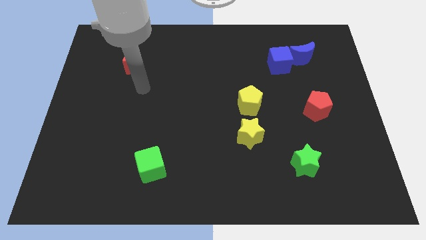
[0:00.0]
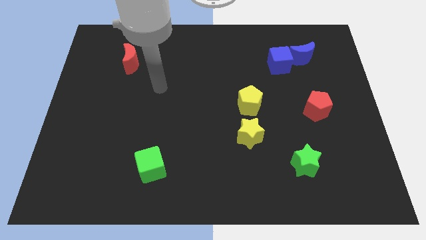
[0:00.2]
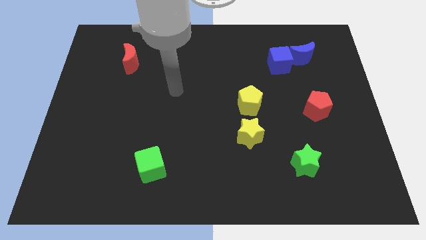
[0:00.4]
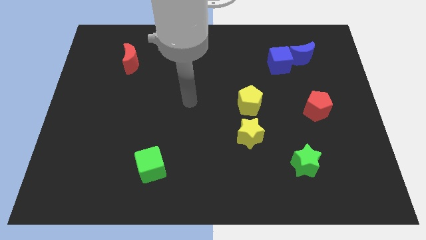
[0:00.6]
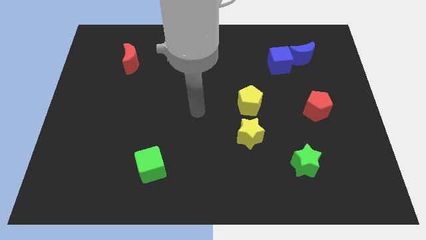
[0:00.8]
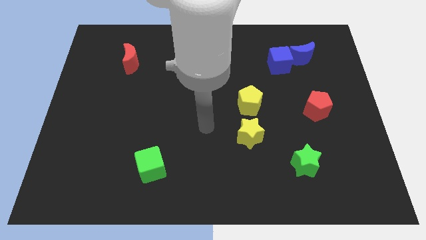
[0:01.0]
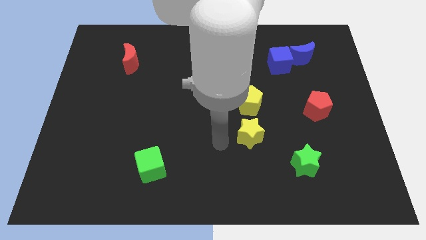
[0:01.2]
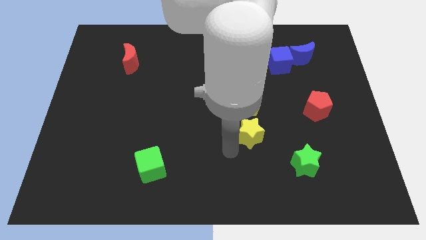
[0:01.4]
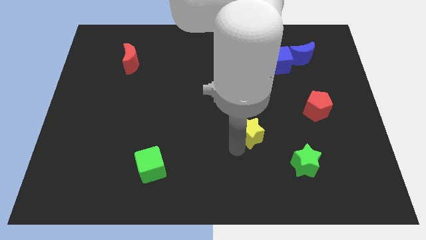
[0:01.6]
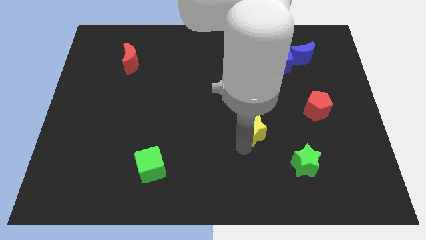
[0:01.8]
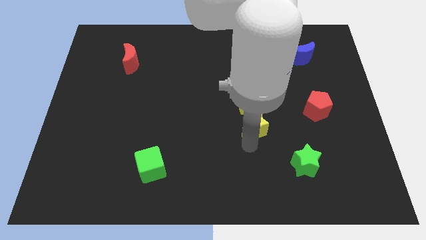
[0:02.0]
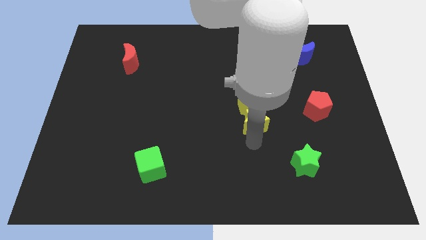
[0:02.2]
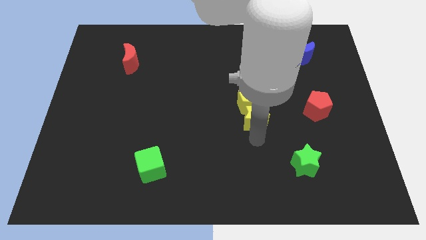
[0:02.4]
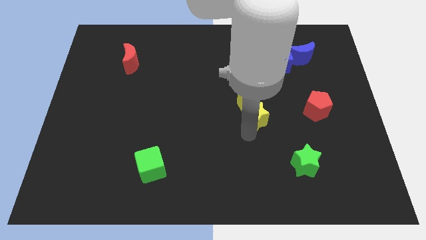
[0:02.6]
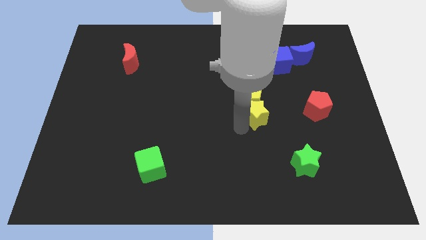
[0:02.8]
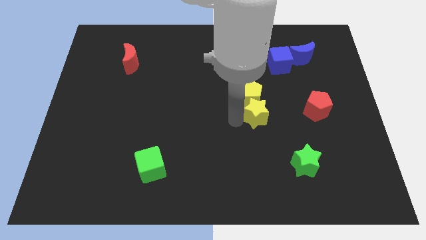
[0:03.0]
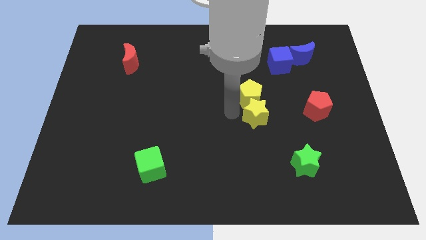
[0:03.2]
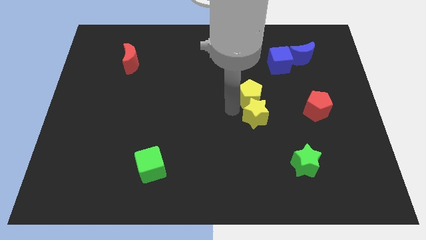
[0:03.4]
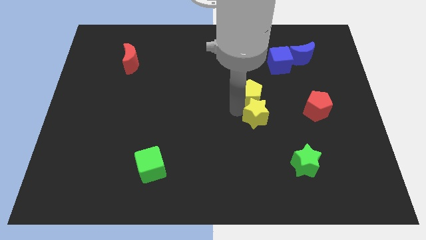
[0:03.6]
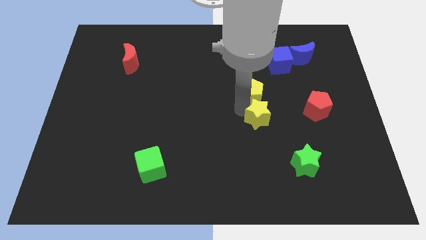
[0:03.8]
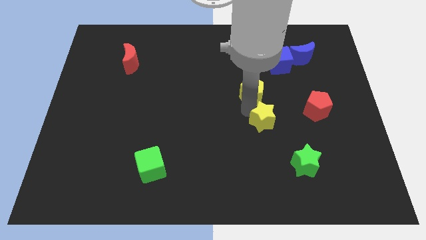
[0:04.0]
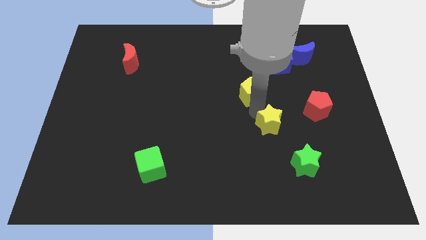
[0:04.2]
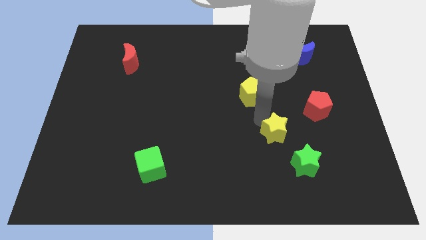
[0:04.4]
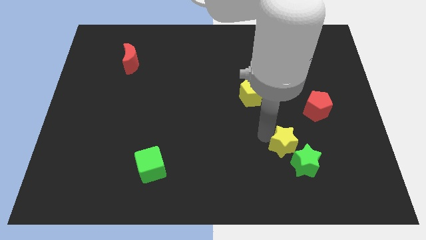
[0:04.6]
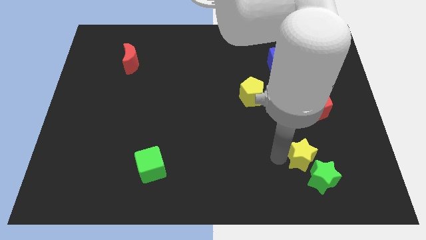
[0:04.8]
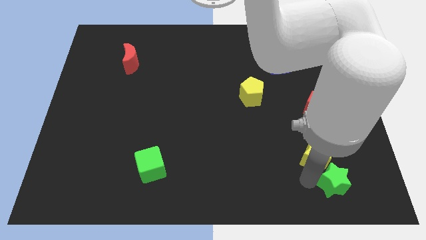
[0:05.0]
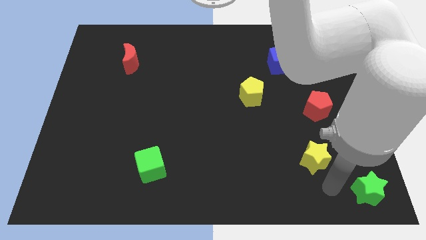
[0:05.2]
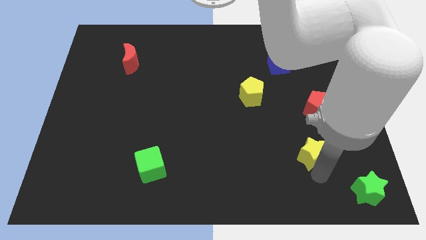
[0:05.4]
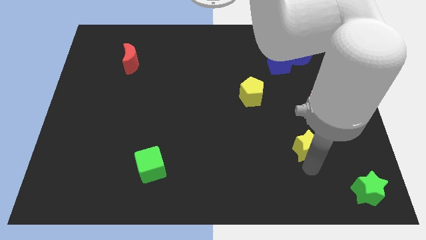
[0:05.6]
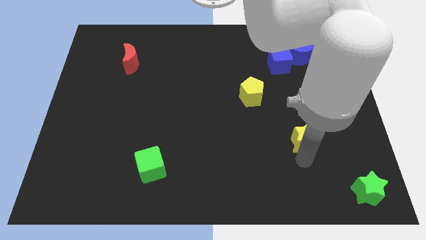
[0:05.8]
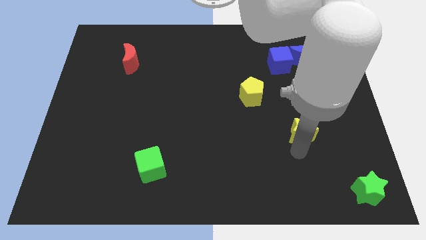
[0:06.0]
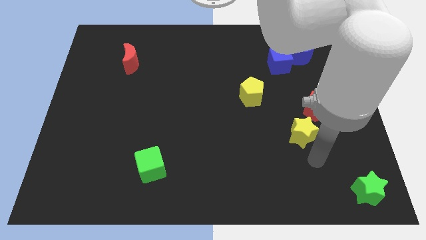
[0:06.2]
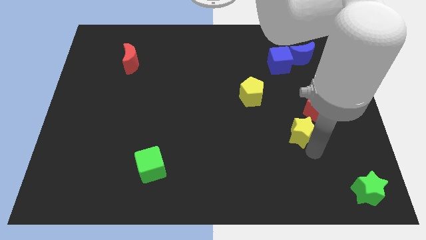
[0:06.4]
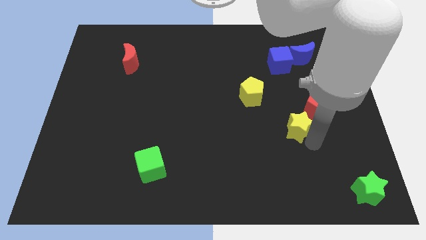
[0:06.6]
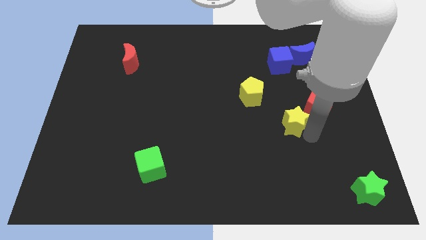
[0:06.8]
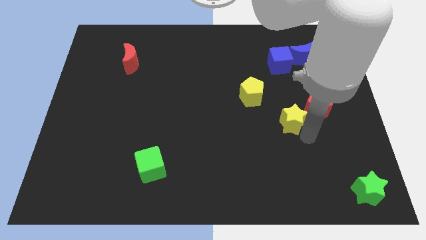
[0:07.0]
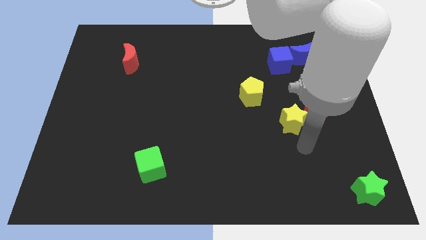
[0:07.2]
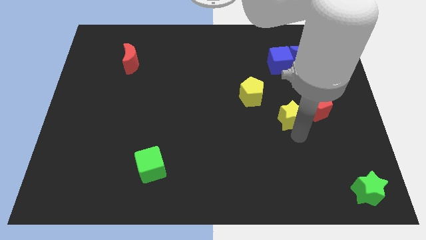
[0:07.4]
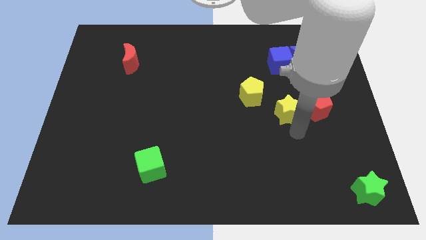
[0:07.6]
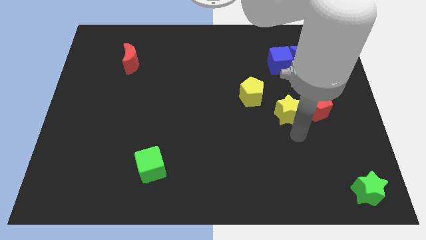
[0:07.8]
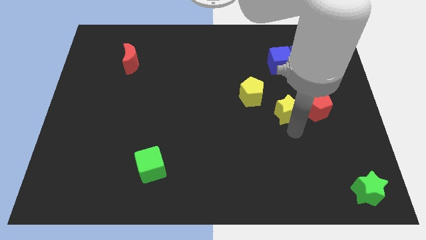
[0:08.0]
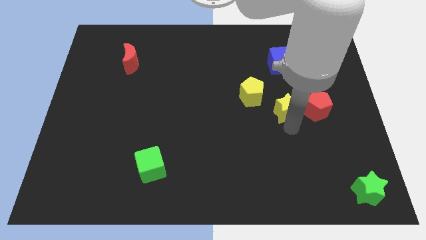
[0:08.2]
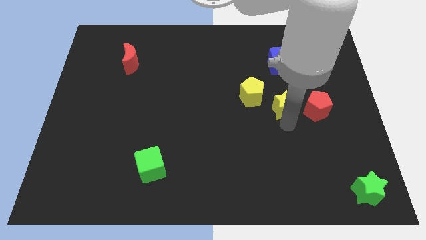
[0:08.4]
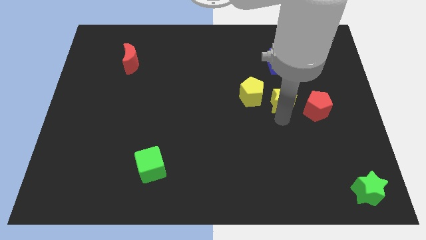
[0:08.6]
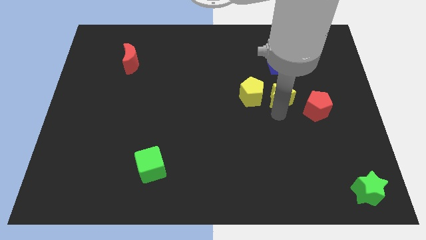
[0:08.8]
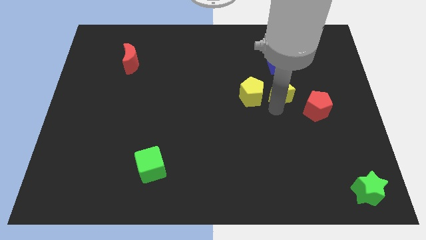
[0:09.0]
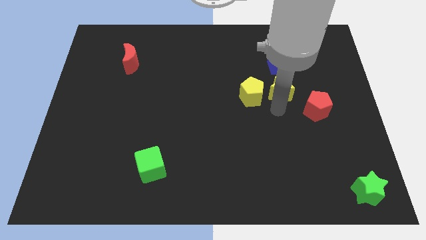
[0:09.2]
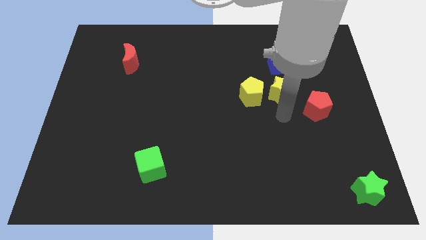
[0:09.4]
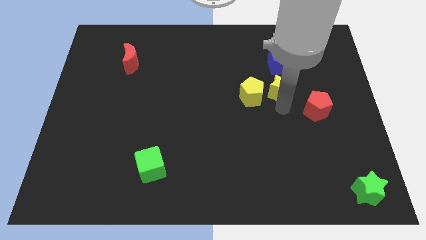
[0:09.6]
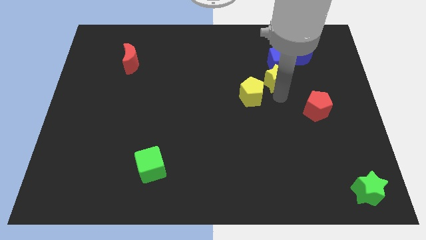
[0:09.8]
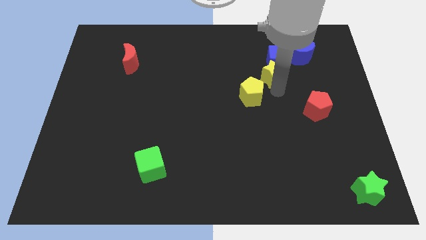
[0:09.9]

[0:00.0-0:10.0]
move the yellow star towards the blue cube

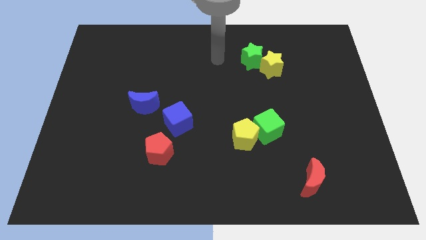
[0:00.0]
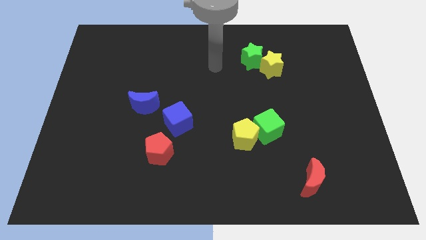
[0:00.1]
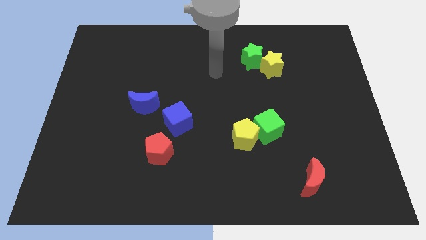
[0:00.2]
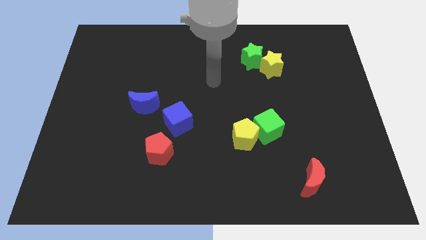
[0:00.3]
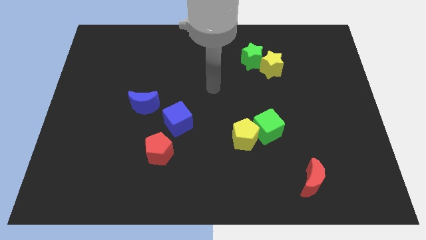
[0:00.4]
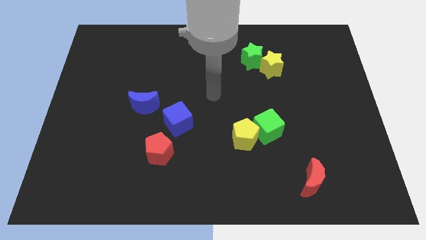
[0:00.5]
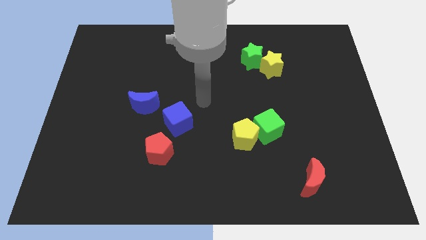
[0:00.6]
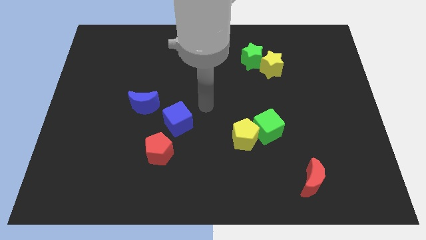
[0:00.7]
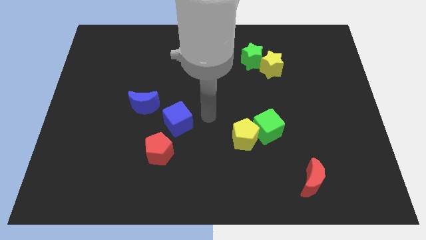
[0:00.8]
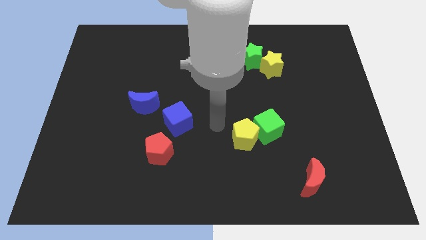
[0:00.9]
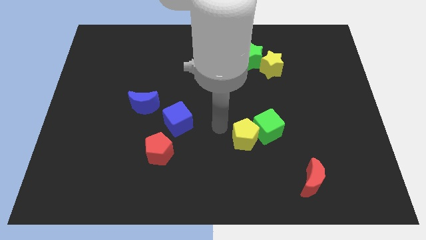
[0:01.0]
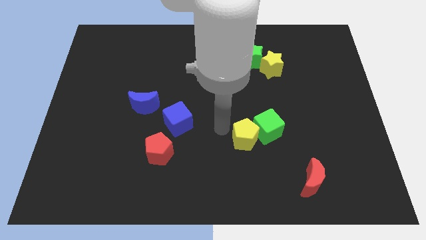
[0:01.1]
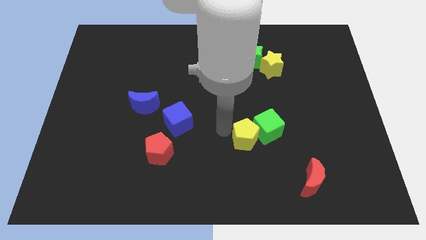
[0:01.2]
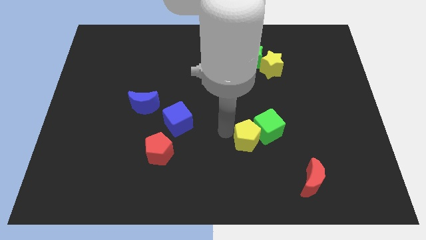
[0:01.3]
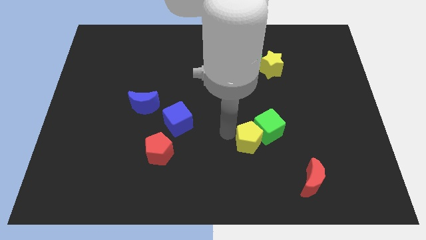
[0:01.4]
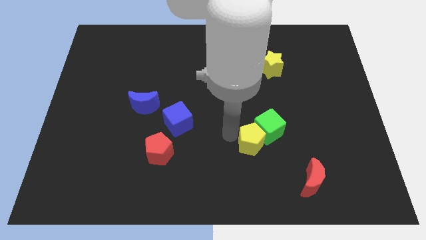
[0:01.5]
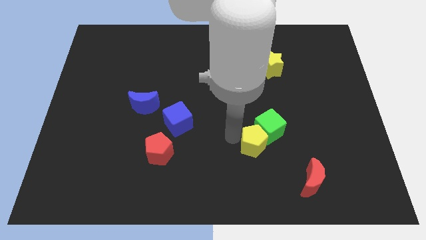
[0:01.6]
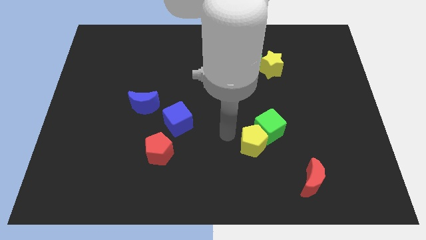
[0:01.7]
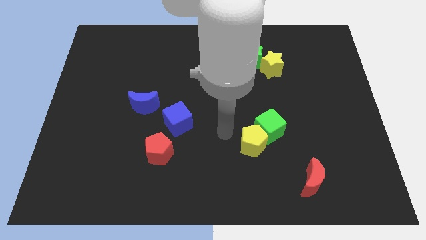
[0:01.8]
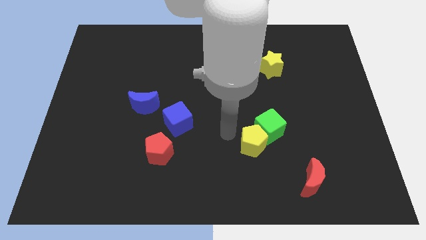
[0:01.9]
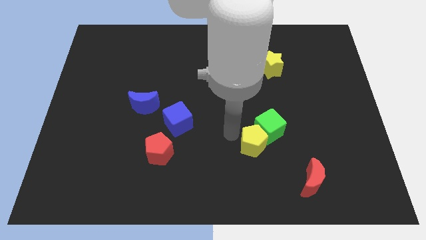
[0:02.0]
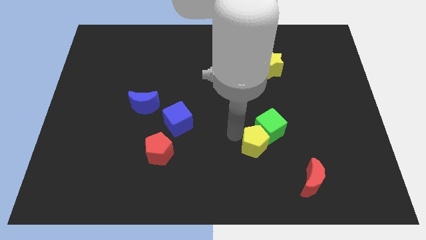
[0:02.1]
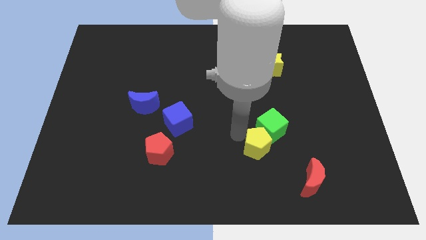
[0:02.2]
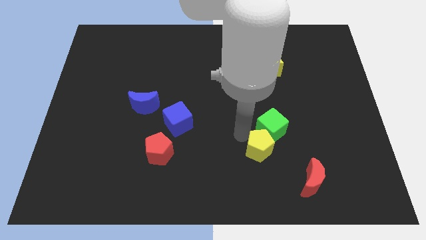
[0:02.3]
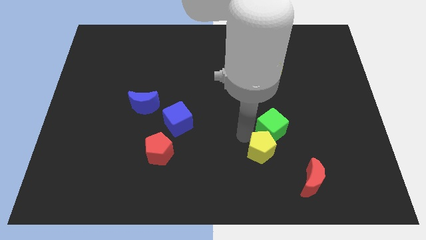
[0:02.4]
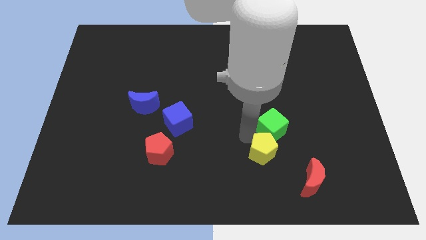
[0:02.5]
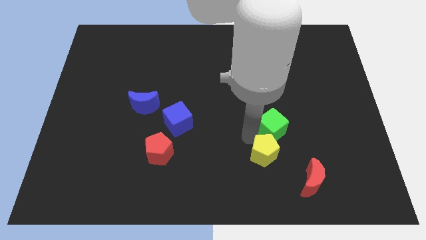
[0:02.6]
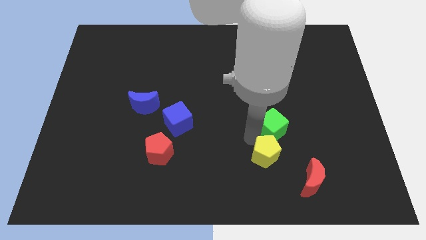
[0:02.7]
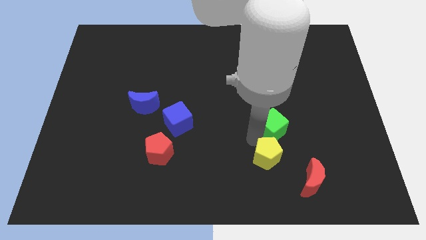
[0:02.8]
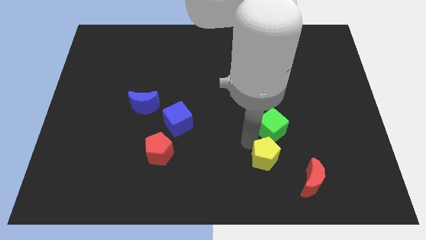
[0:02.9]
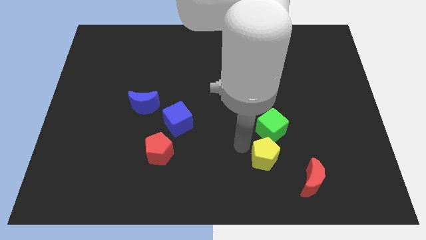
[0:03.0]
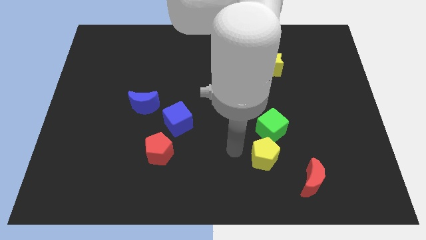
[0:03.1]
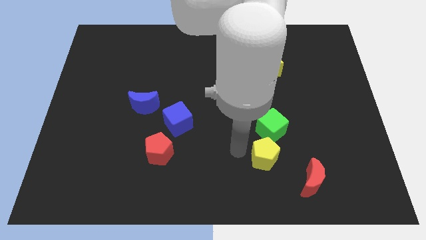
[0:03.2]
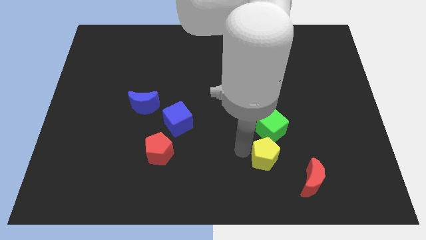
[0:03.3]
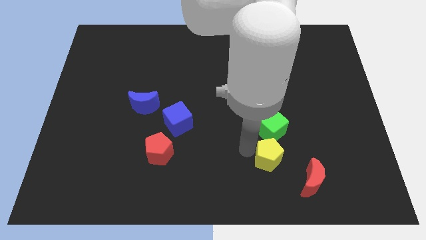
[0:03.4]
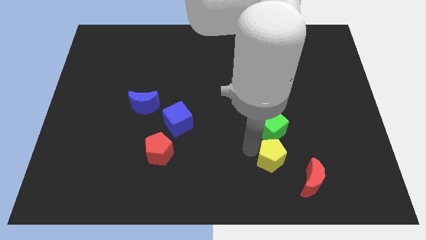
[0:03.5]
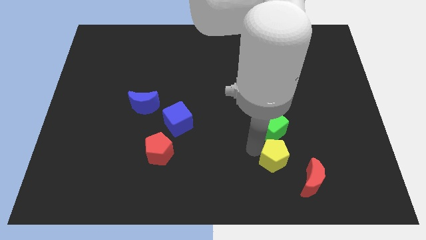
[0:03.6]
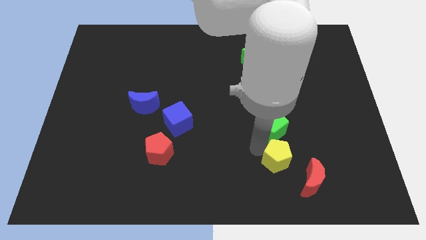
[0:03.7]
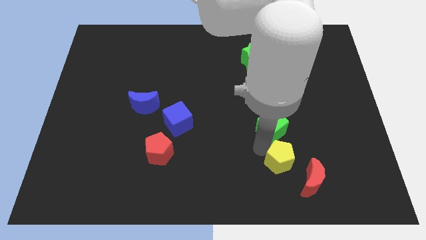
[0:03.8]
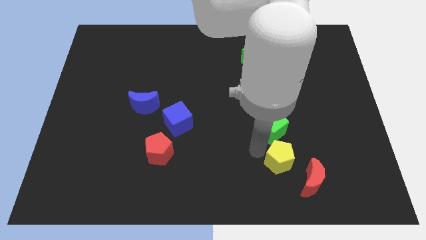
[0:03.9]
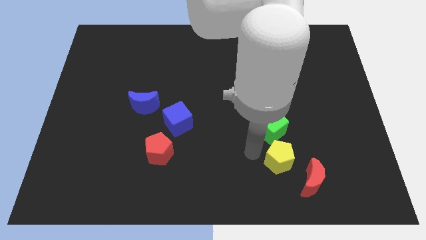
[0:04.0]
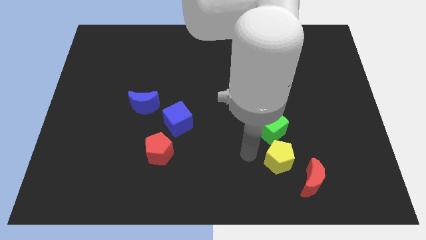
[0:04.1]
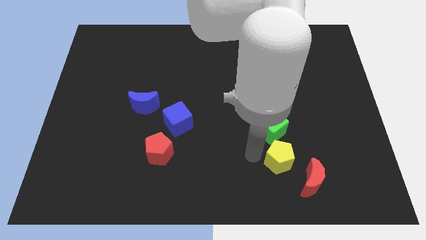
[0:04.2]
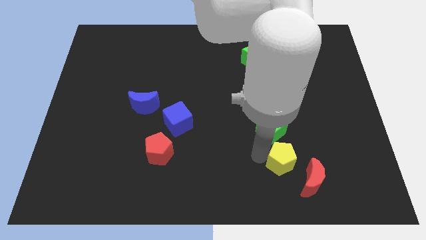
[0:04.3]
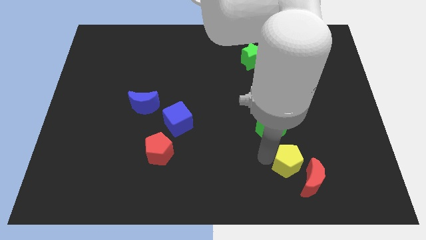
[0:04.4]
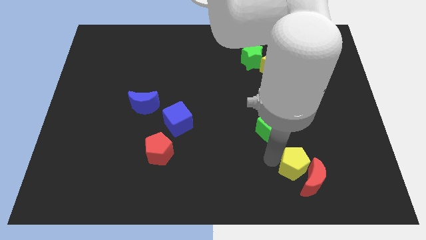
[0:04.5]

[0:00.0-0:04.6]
put the yellow pentagon next to the red moon
